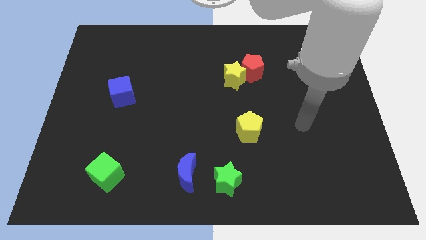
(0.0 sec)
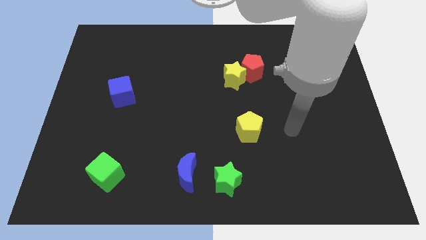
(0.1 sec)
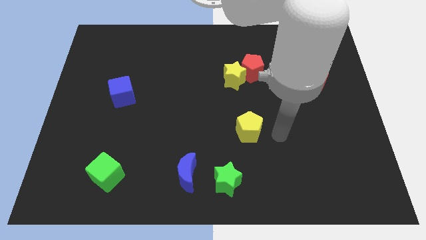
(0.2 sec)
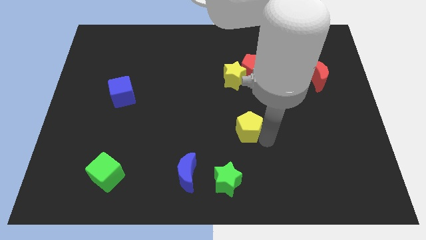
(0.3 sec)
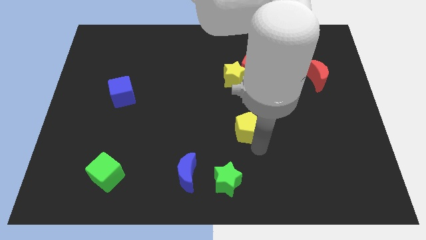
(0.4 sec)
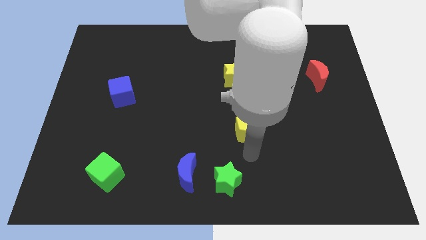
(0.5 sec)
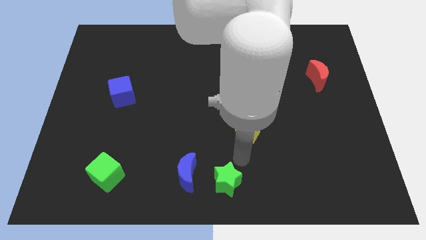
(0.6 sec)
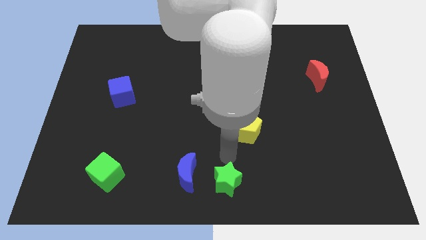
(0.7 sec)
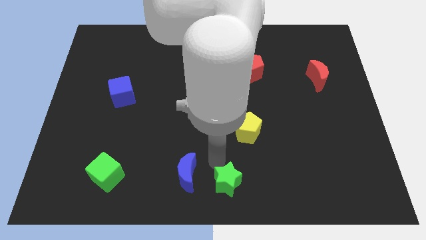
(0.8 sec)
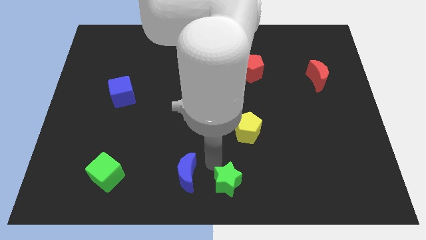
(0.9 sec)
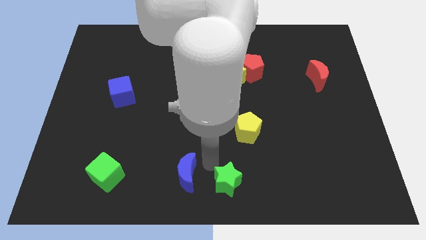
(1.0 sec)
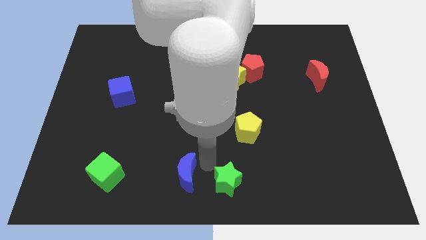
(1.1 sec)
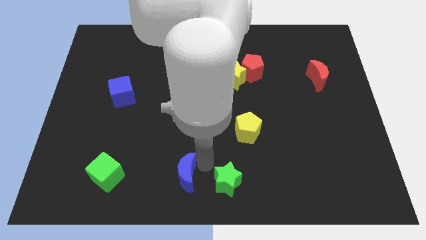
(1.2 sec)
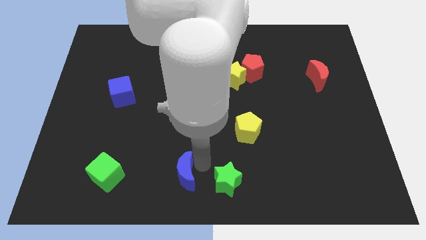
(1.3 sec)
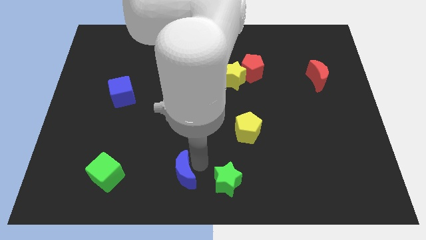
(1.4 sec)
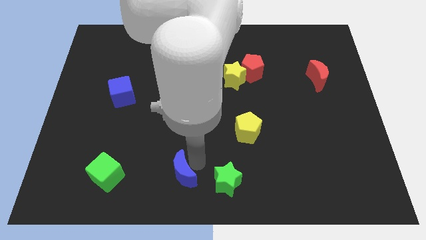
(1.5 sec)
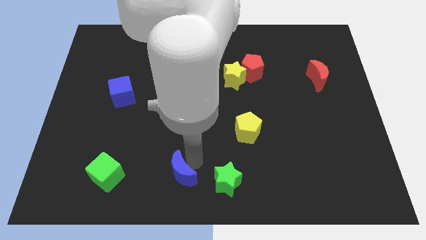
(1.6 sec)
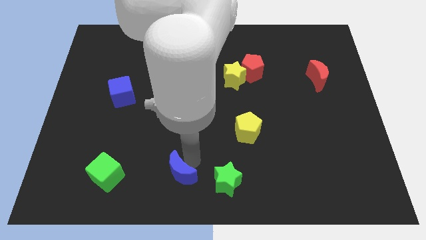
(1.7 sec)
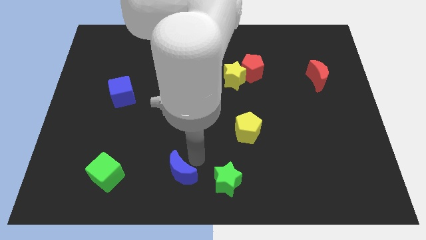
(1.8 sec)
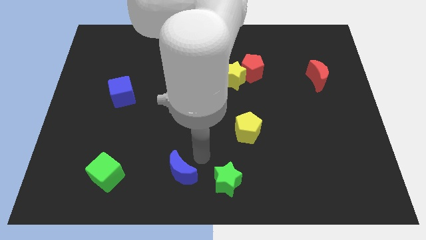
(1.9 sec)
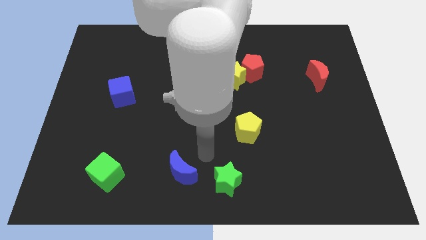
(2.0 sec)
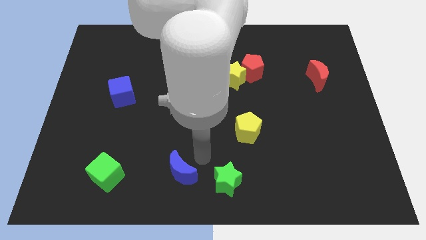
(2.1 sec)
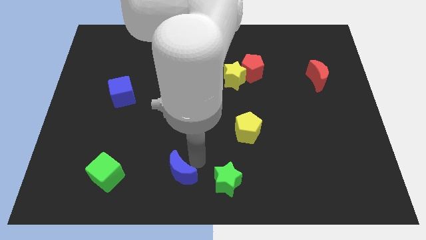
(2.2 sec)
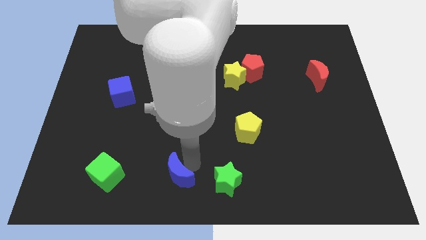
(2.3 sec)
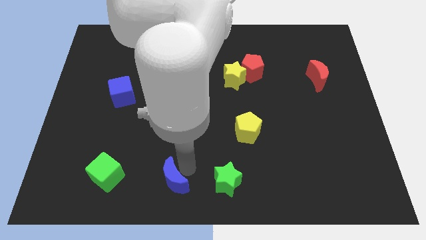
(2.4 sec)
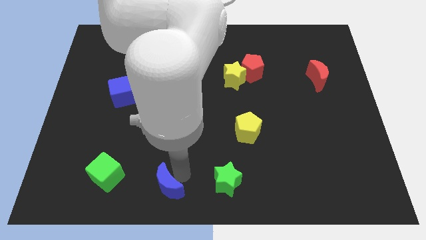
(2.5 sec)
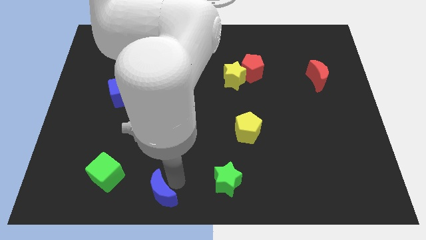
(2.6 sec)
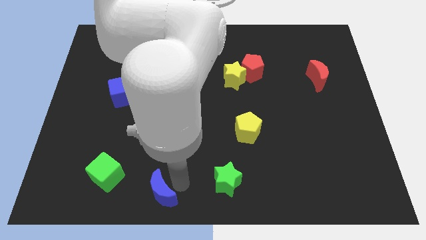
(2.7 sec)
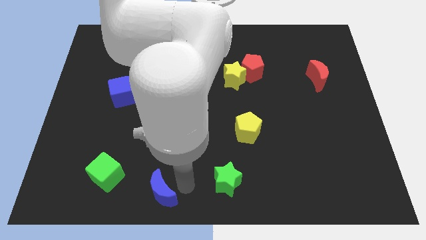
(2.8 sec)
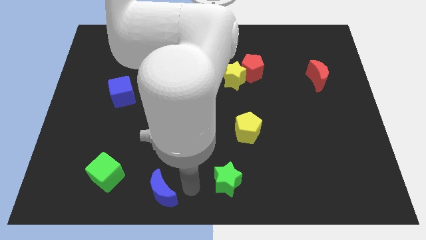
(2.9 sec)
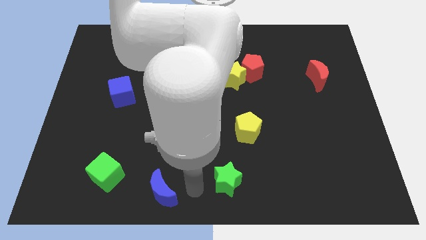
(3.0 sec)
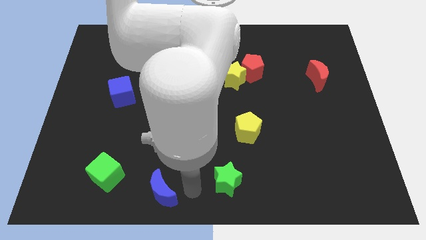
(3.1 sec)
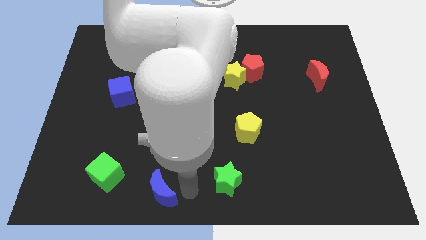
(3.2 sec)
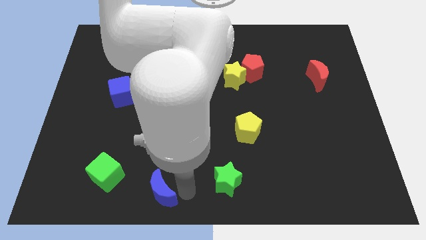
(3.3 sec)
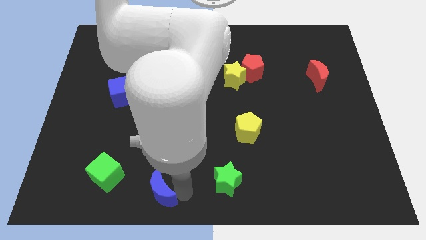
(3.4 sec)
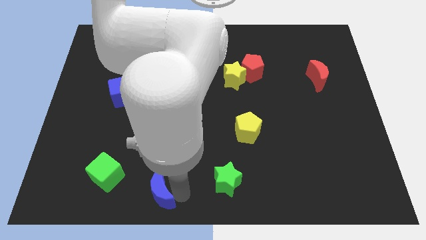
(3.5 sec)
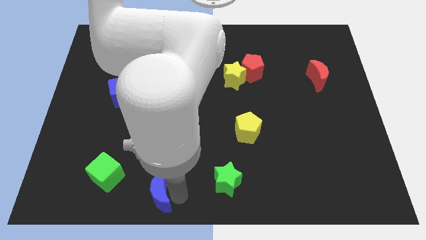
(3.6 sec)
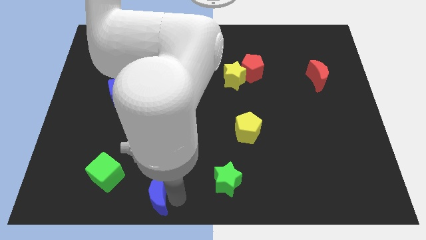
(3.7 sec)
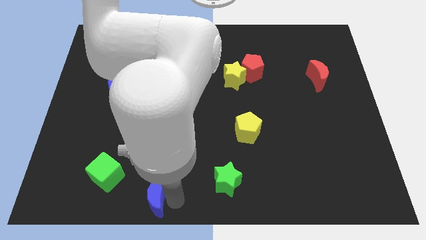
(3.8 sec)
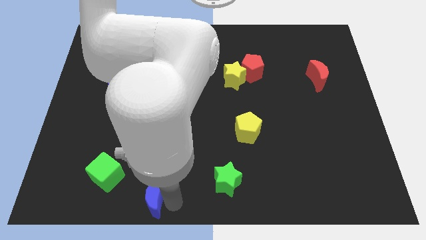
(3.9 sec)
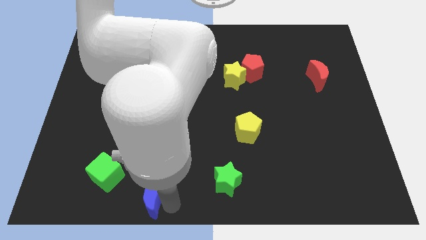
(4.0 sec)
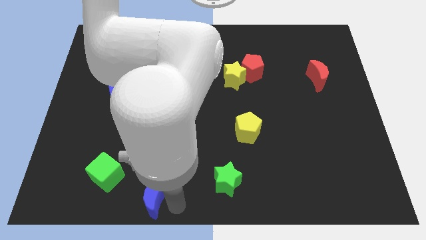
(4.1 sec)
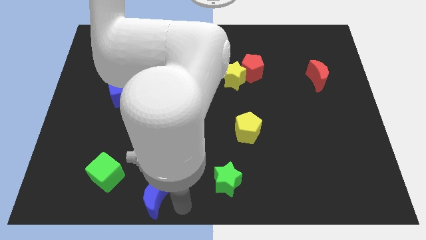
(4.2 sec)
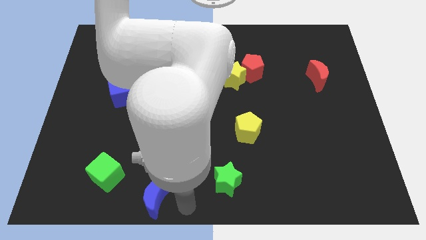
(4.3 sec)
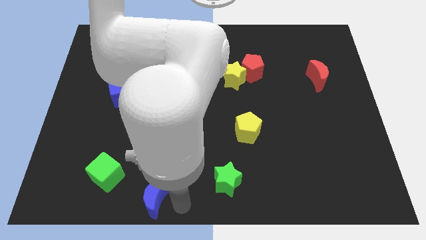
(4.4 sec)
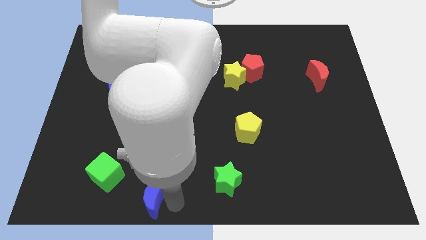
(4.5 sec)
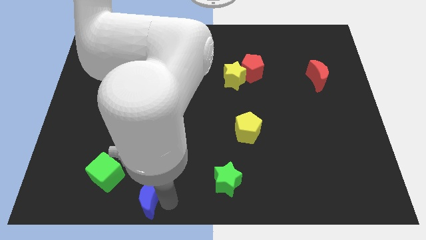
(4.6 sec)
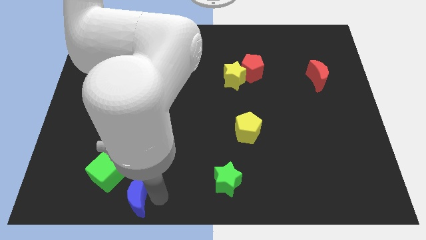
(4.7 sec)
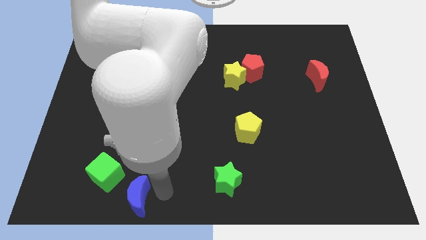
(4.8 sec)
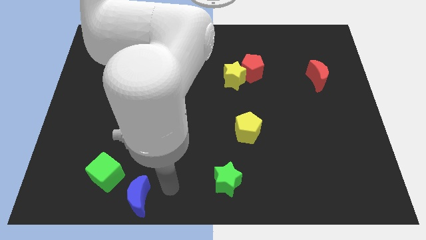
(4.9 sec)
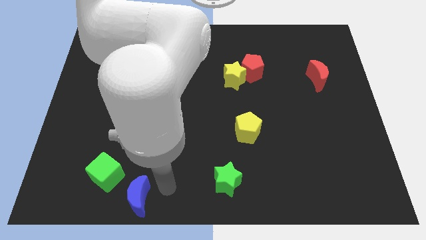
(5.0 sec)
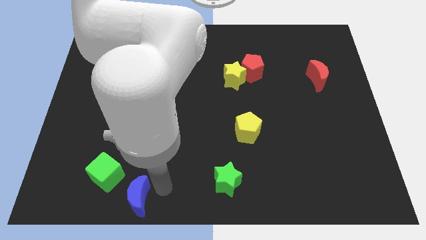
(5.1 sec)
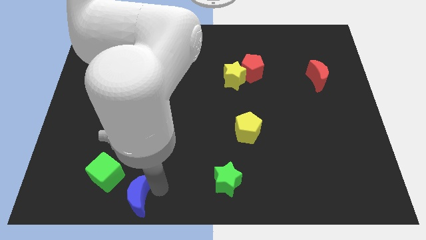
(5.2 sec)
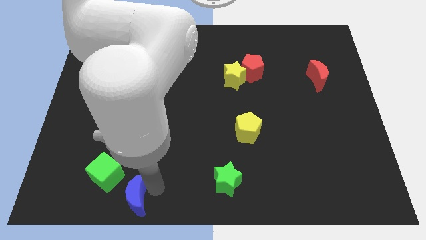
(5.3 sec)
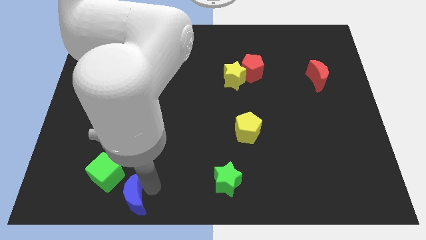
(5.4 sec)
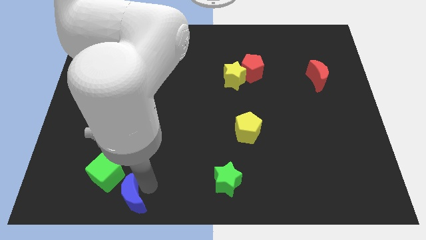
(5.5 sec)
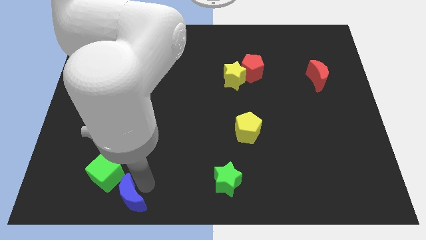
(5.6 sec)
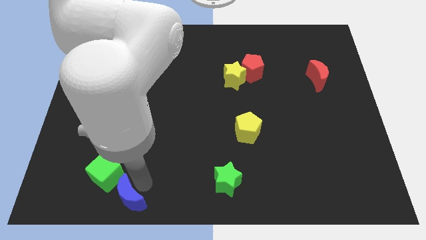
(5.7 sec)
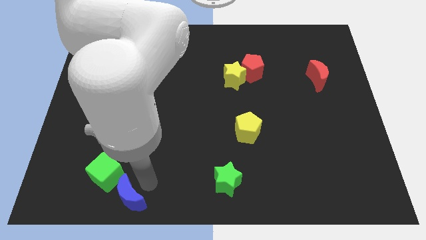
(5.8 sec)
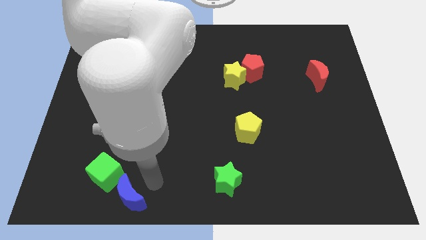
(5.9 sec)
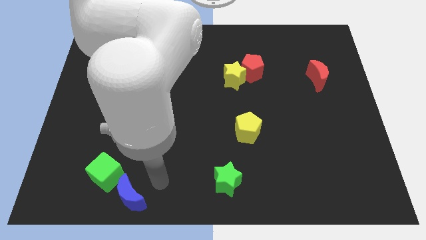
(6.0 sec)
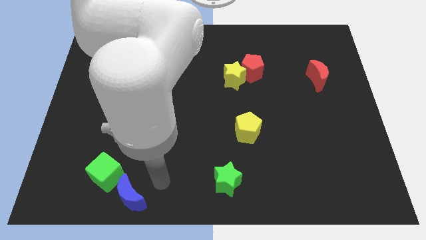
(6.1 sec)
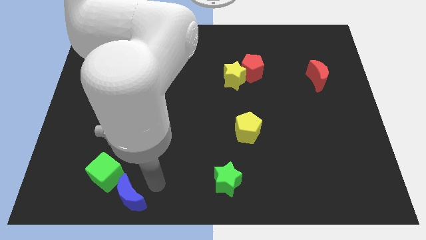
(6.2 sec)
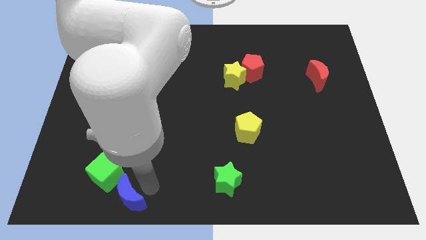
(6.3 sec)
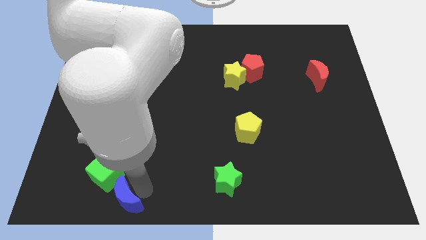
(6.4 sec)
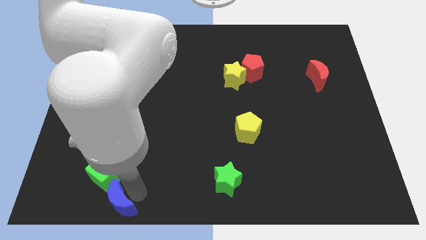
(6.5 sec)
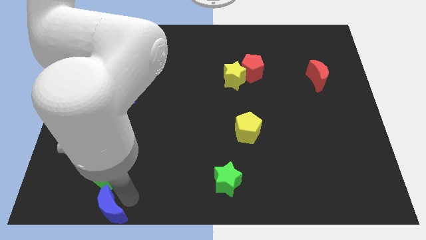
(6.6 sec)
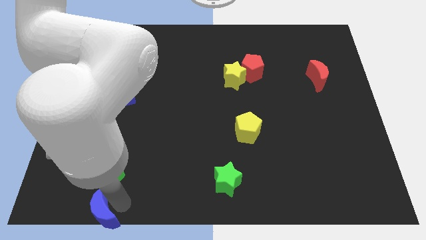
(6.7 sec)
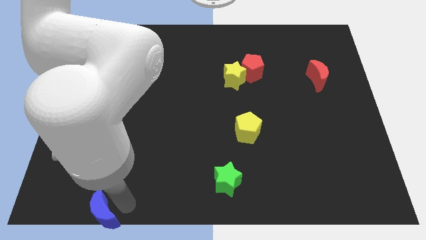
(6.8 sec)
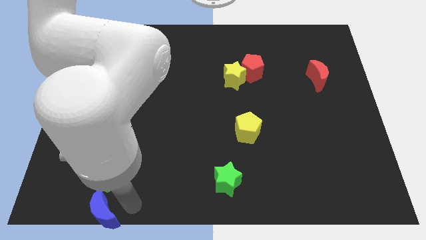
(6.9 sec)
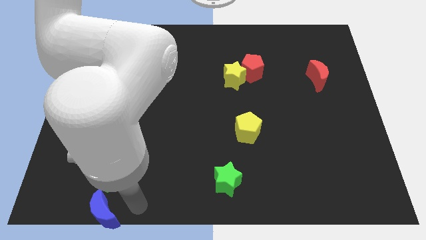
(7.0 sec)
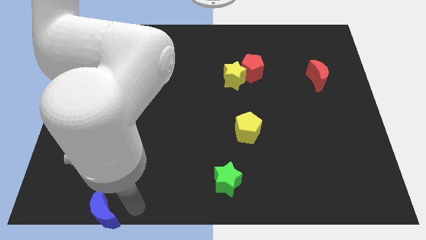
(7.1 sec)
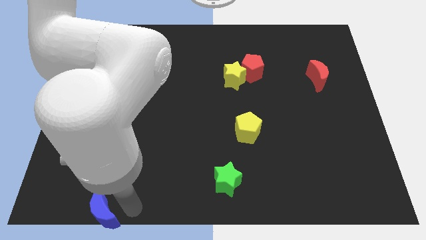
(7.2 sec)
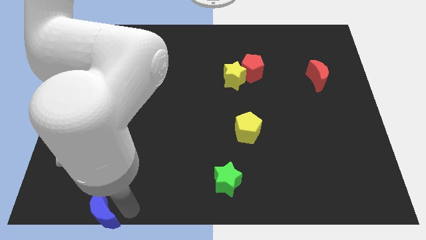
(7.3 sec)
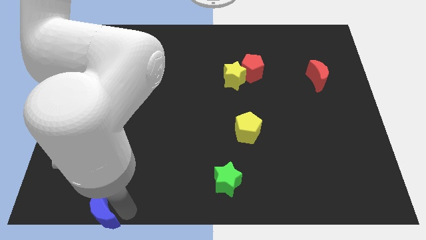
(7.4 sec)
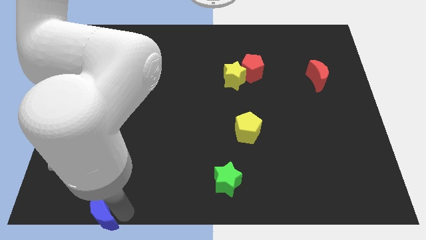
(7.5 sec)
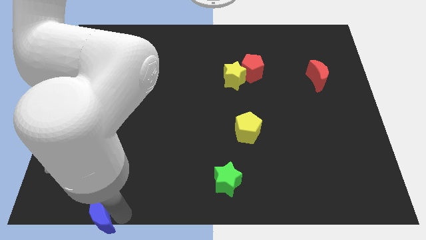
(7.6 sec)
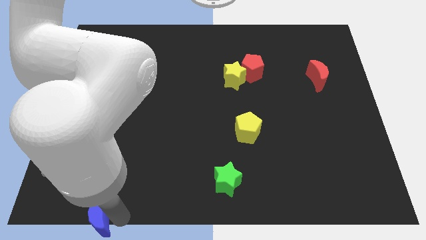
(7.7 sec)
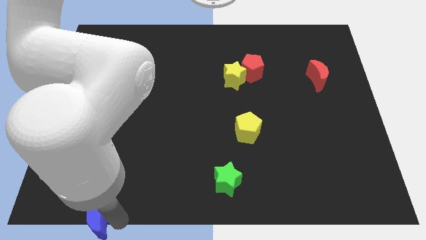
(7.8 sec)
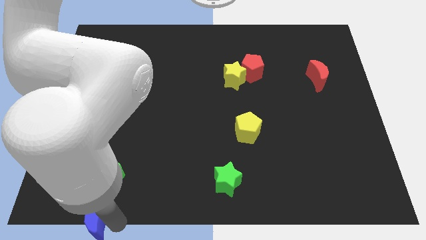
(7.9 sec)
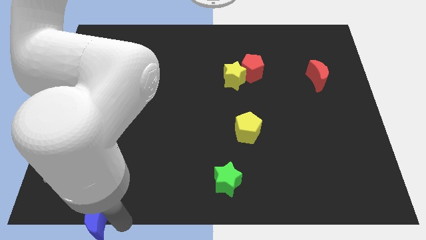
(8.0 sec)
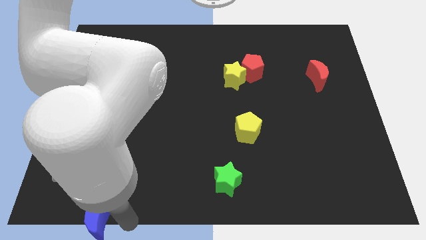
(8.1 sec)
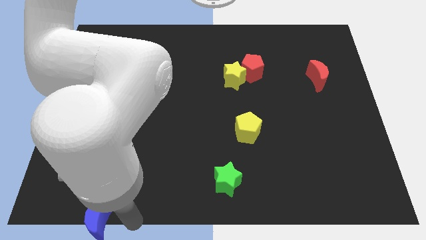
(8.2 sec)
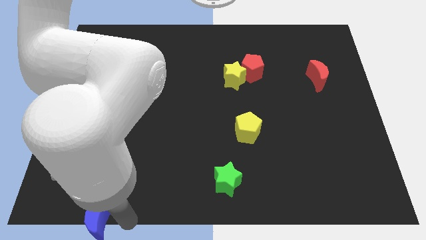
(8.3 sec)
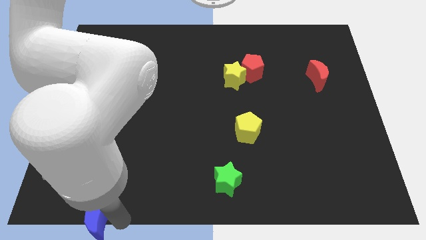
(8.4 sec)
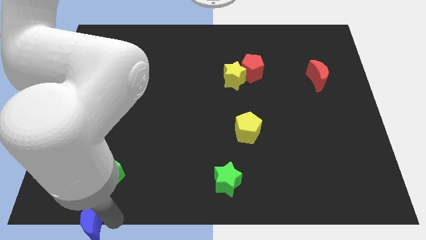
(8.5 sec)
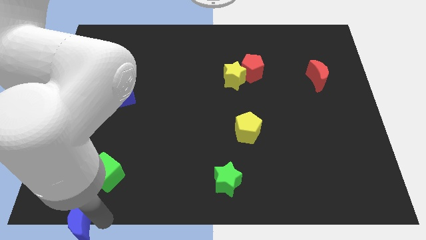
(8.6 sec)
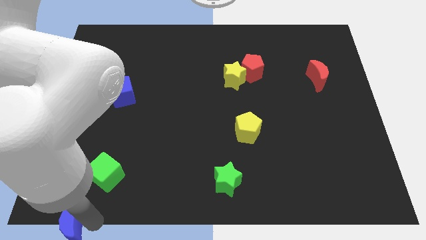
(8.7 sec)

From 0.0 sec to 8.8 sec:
put the blue moon to the lower left corner
